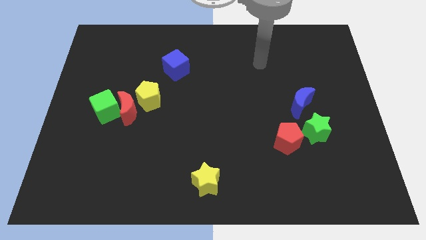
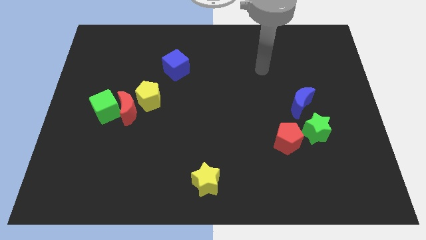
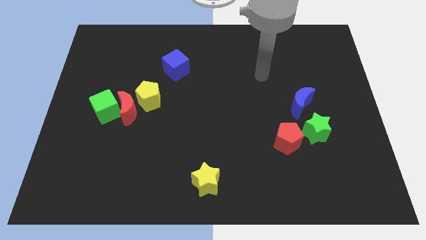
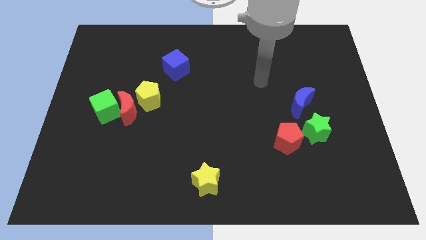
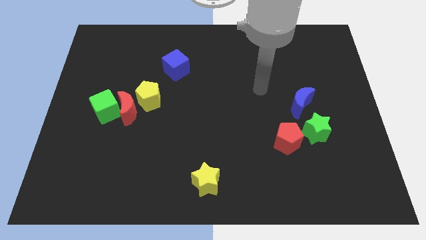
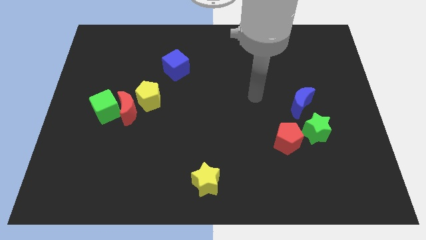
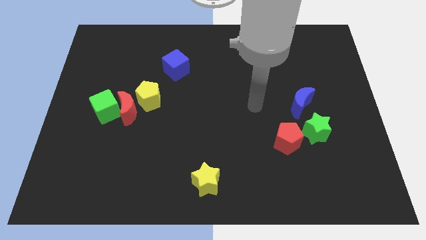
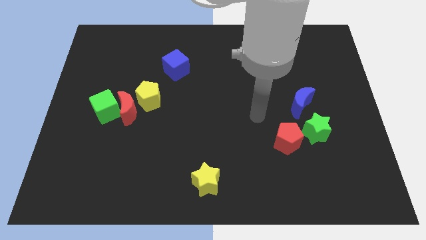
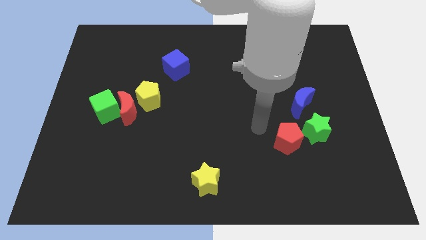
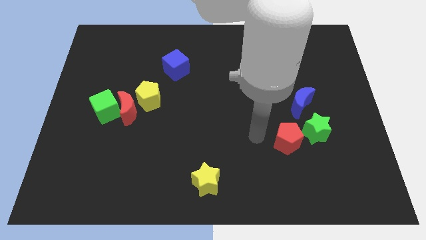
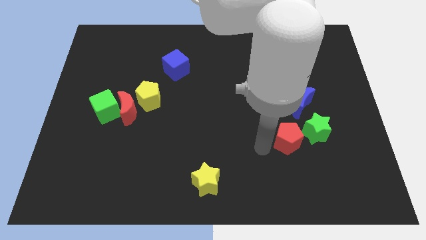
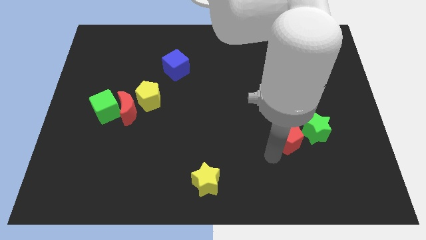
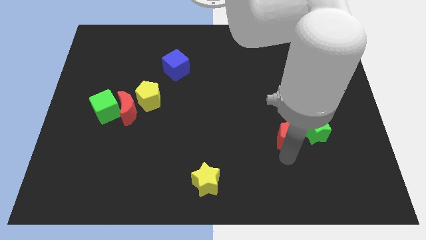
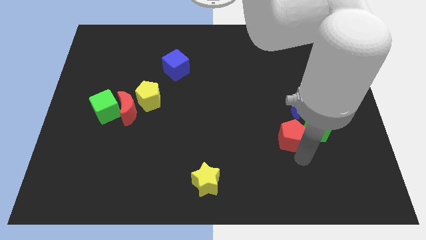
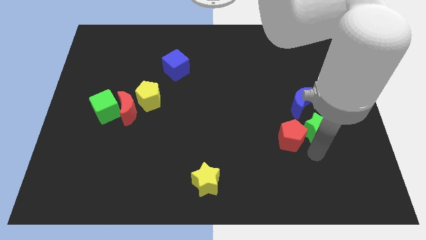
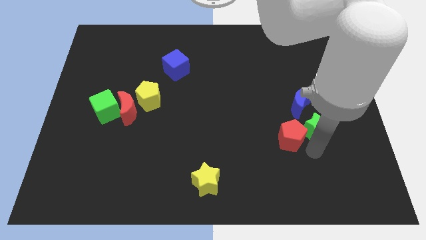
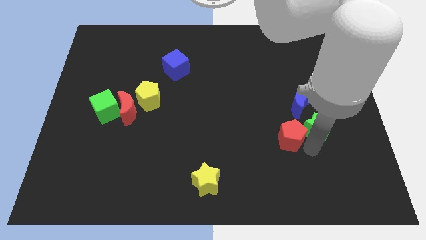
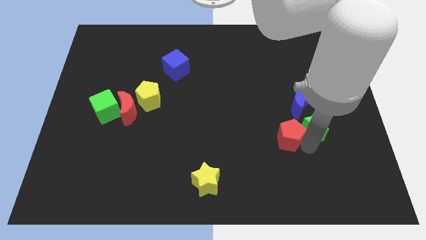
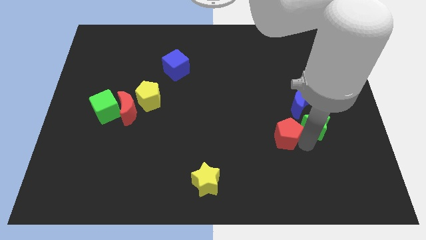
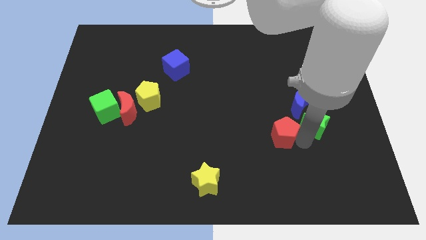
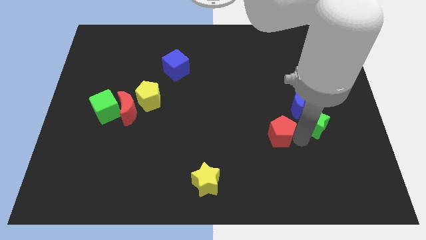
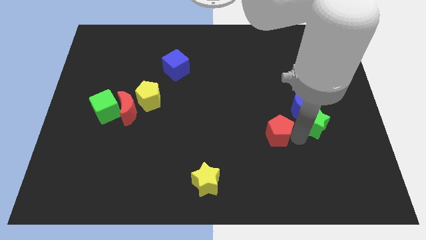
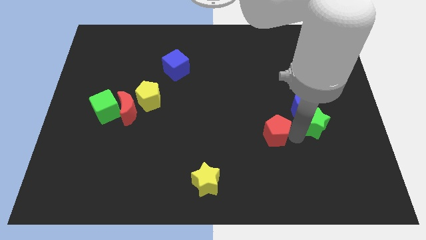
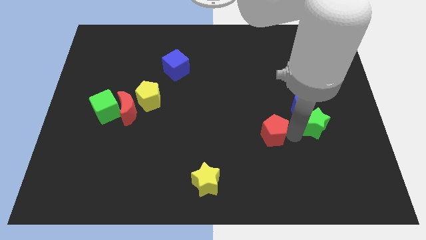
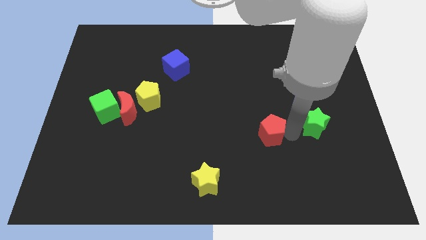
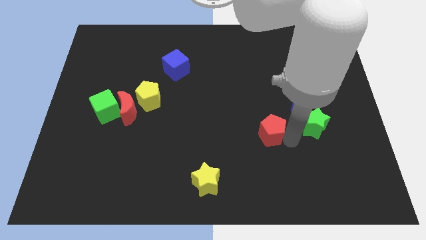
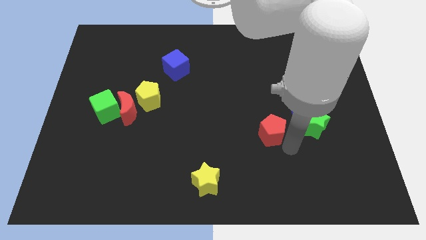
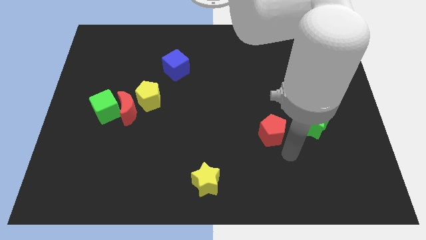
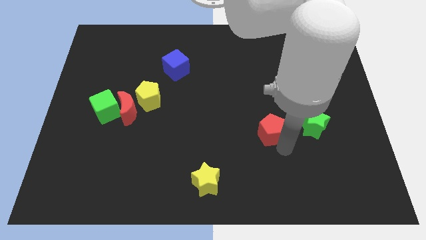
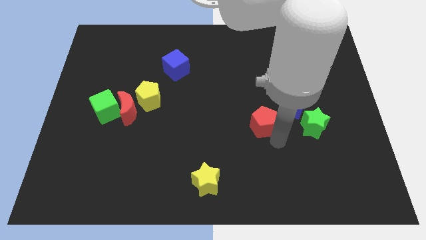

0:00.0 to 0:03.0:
move the red pentagon upwards and to the left diagonally somewhat

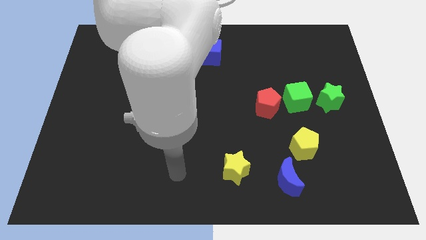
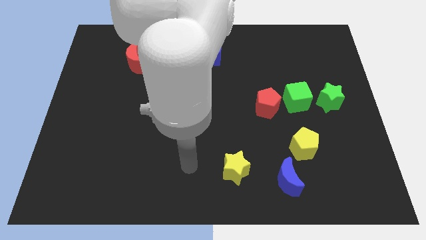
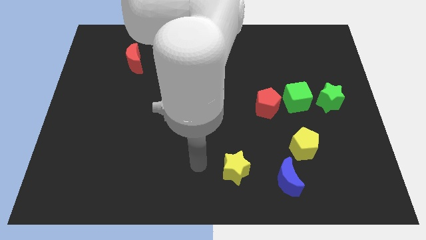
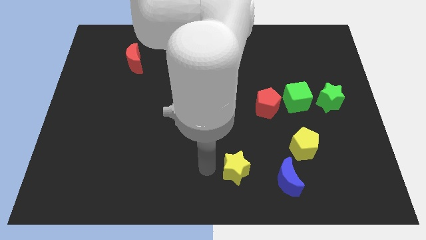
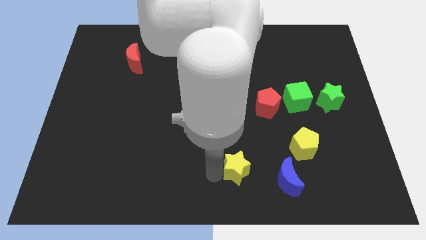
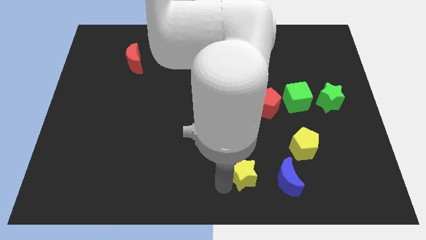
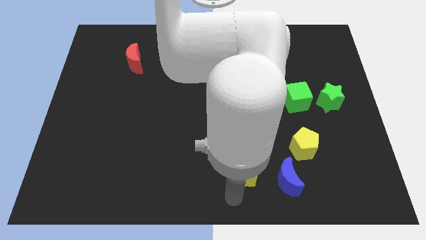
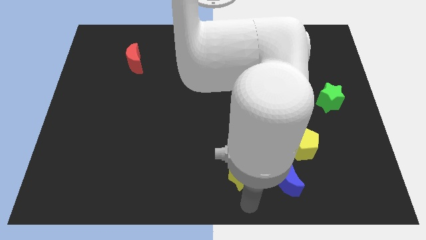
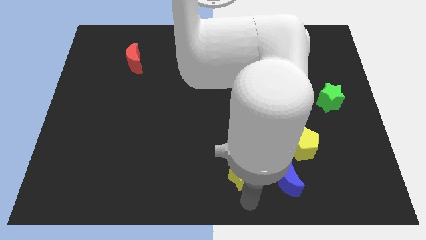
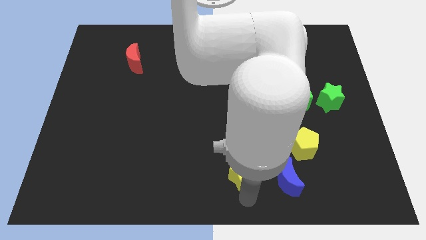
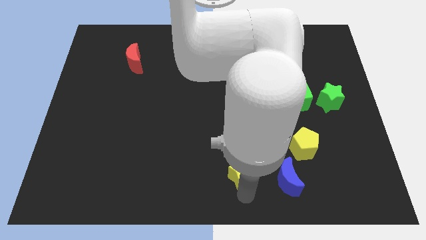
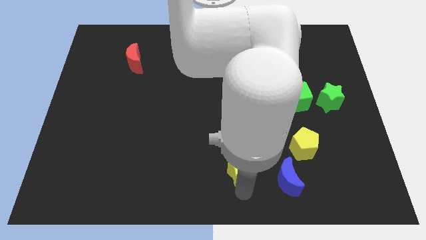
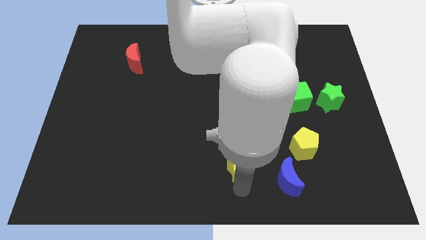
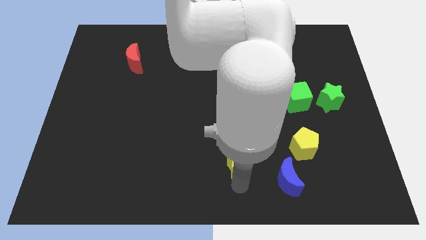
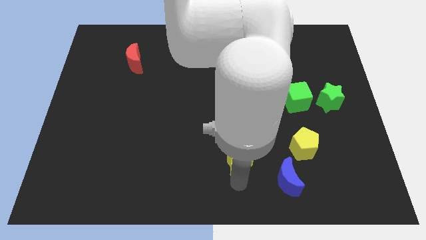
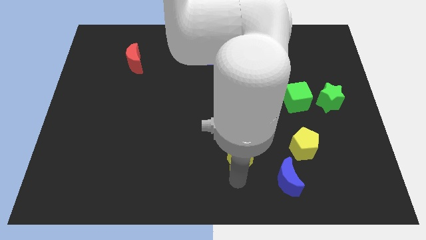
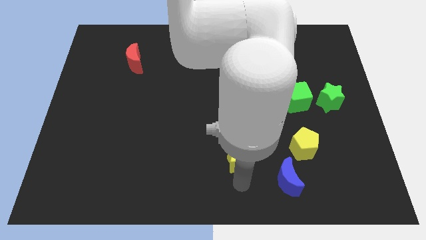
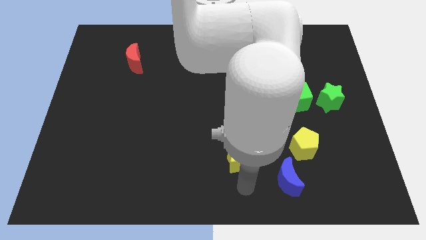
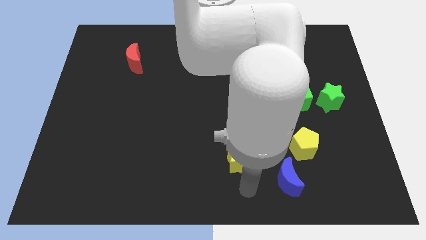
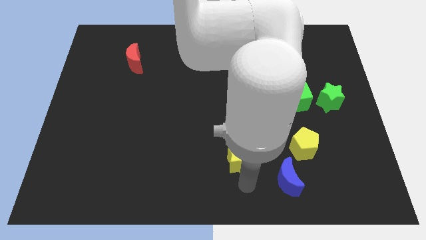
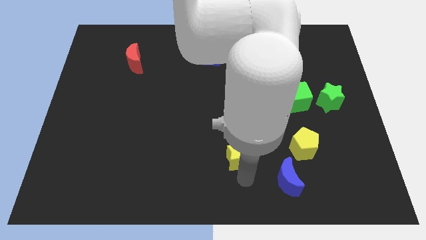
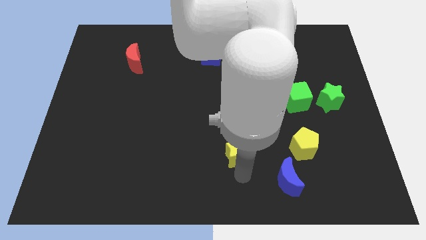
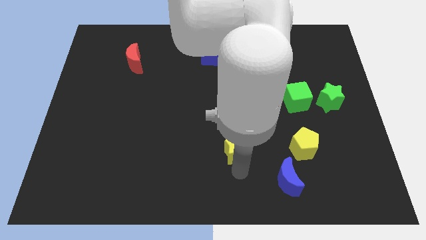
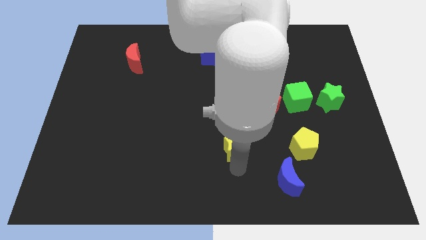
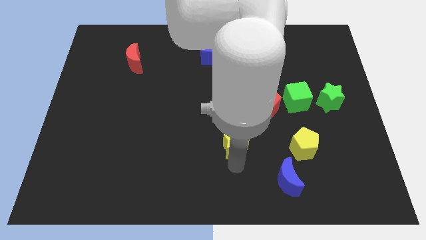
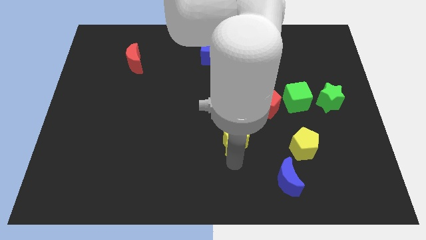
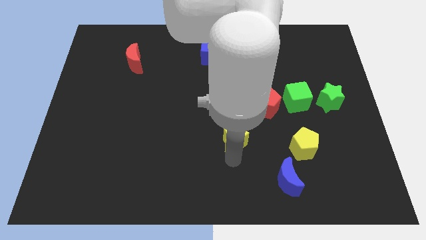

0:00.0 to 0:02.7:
slightly push the yellow star up

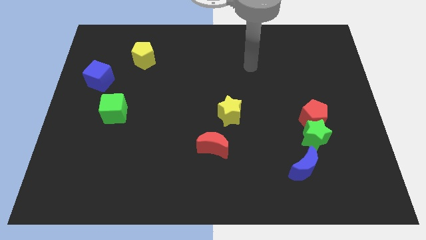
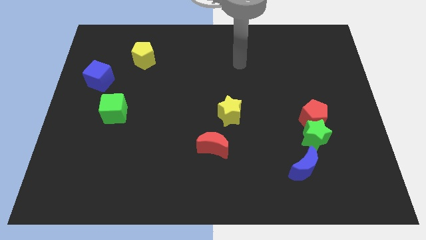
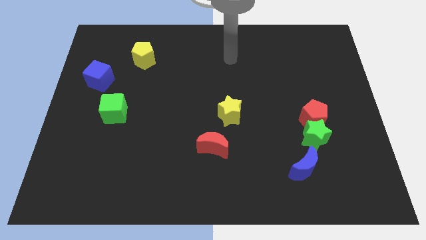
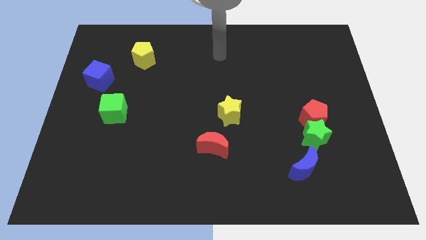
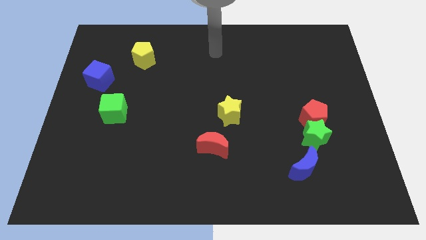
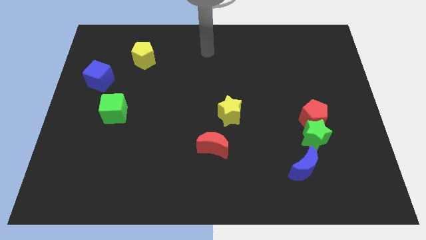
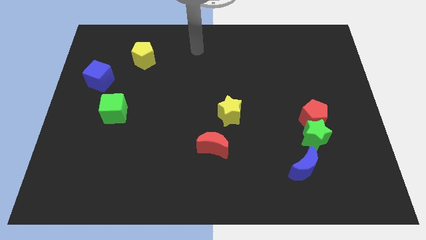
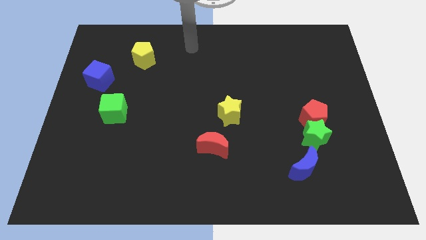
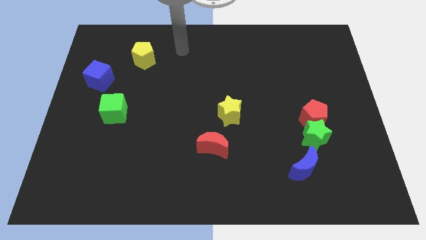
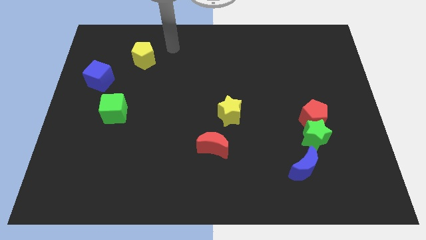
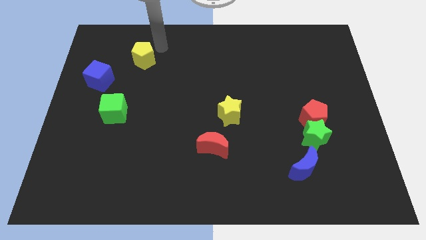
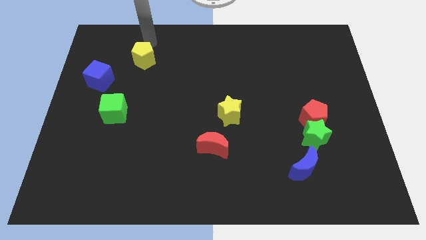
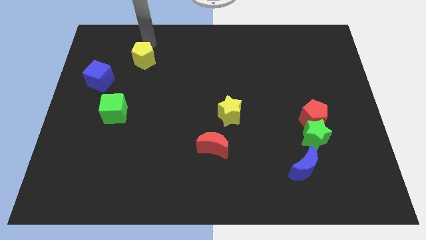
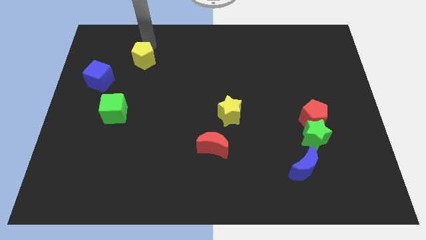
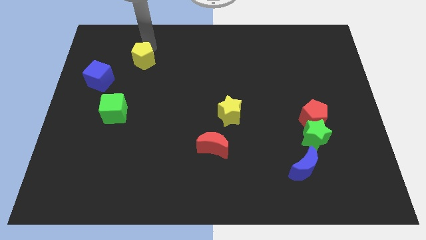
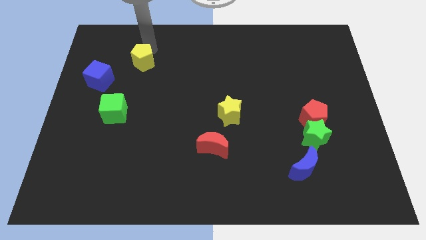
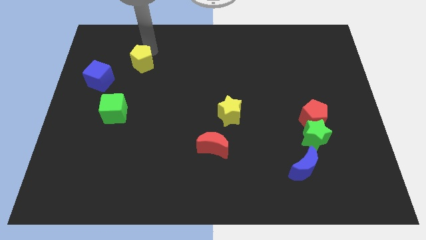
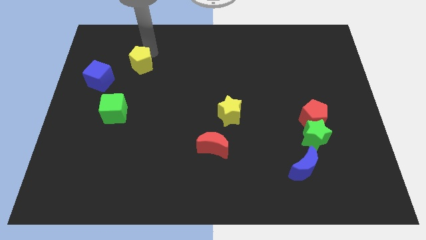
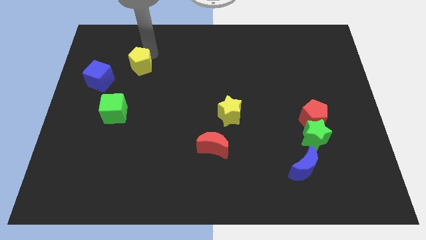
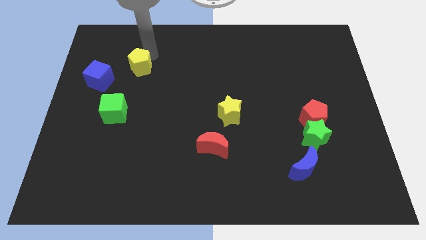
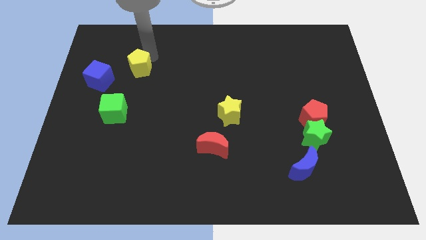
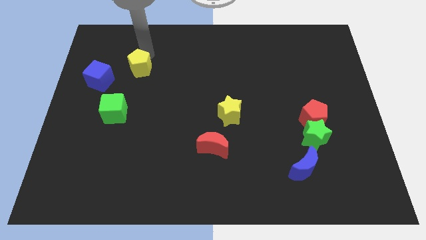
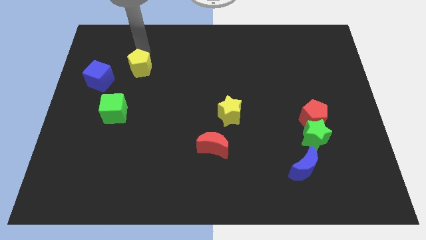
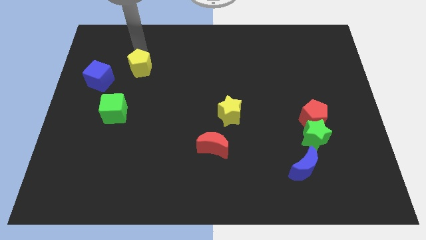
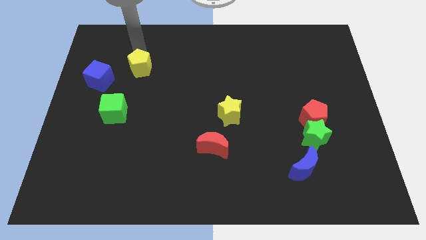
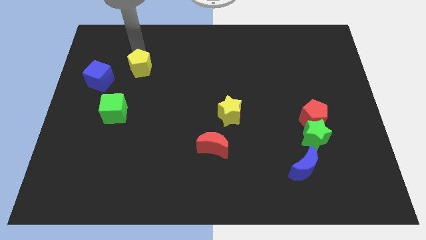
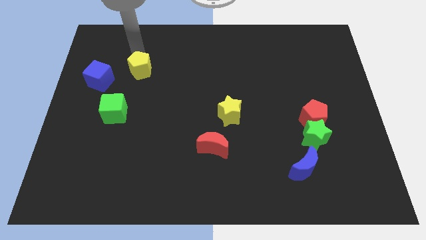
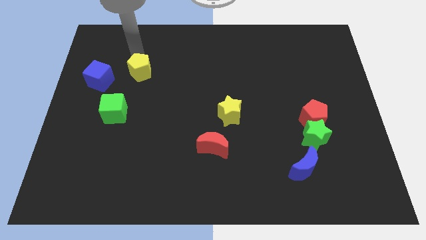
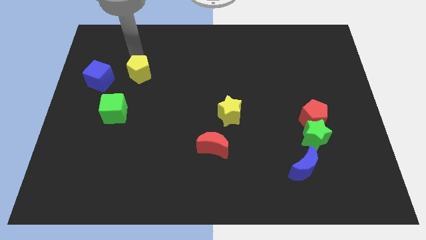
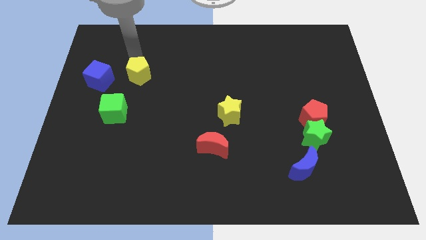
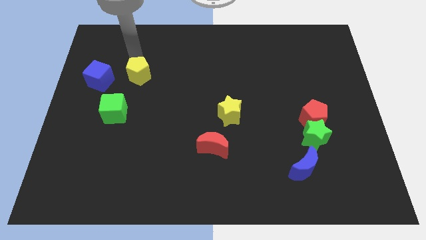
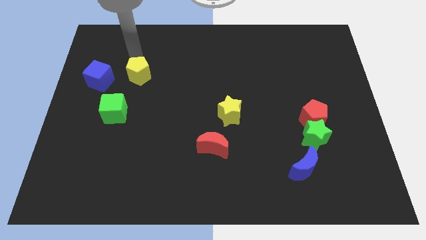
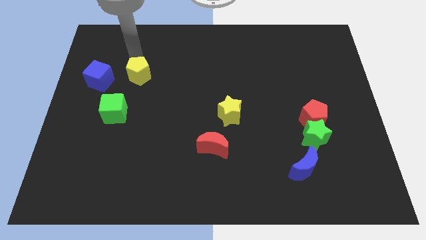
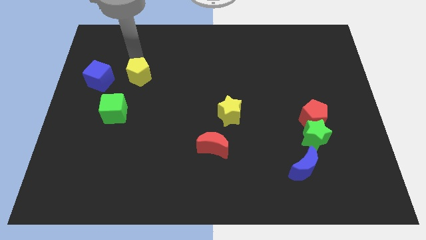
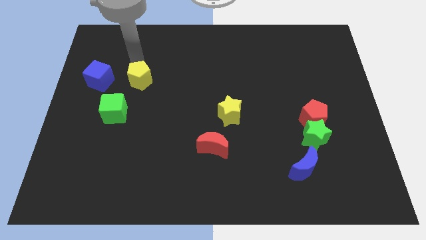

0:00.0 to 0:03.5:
push the yellow pentagon downwards a little
